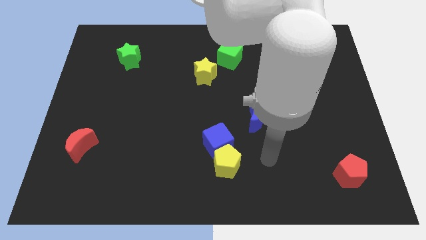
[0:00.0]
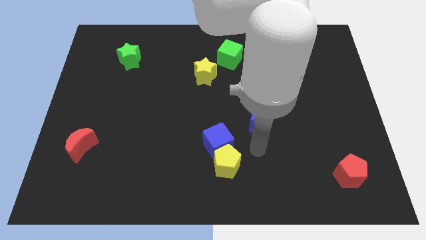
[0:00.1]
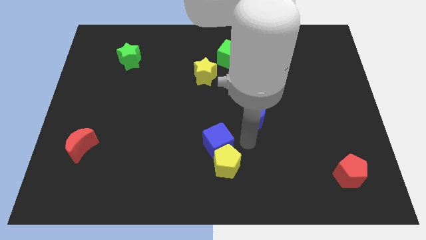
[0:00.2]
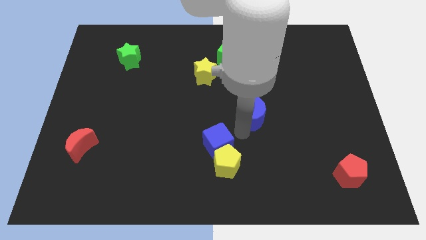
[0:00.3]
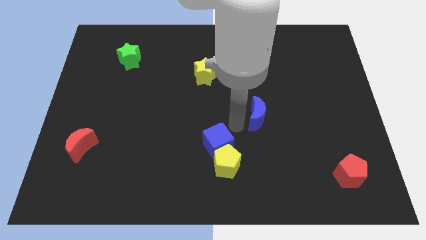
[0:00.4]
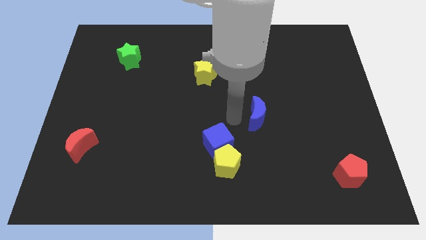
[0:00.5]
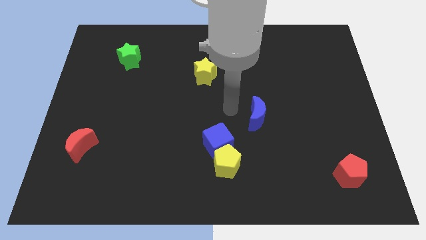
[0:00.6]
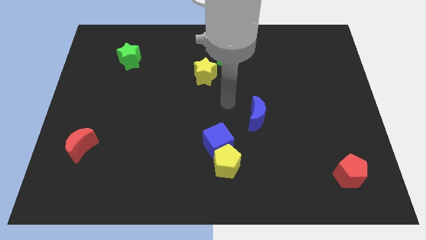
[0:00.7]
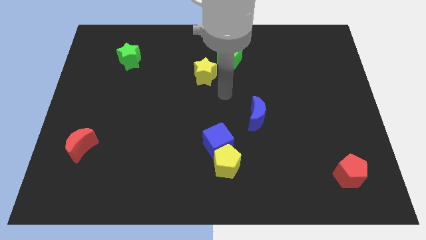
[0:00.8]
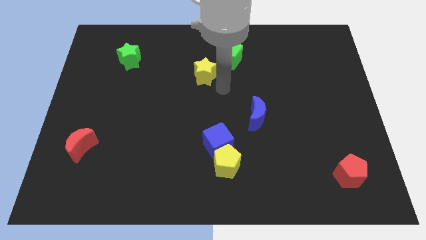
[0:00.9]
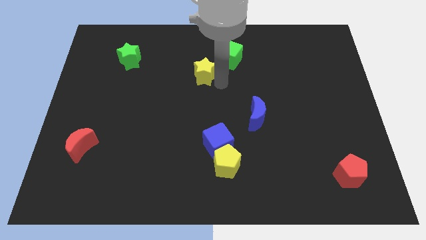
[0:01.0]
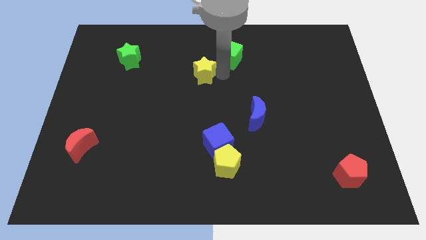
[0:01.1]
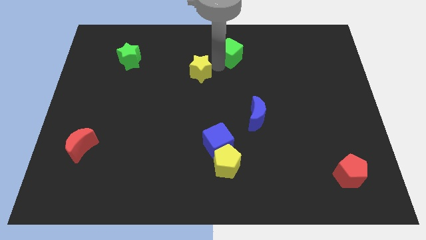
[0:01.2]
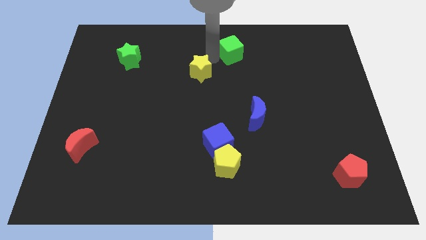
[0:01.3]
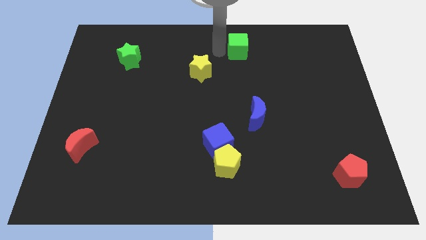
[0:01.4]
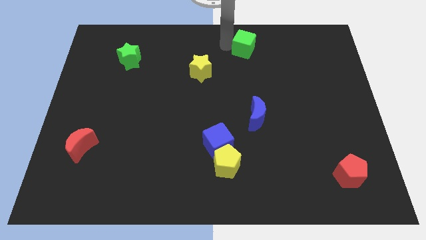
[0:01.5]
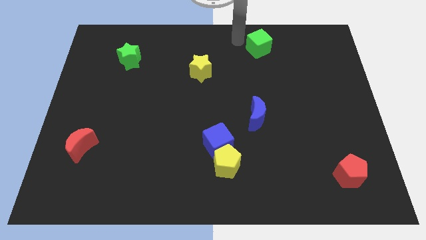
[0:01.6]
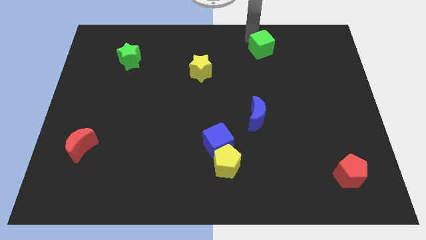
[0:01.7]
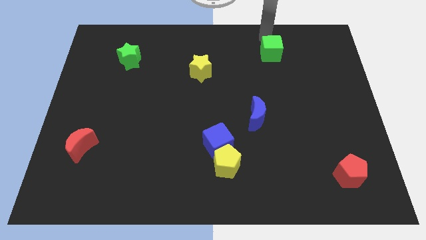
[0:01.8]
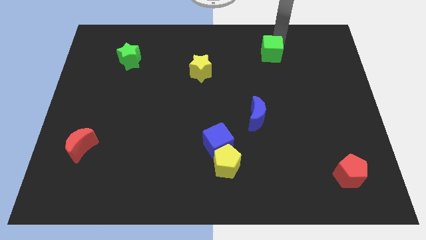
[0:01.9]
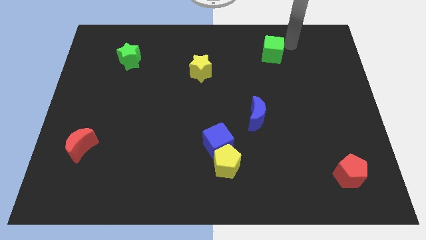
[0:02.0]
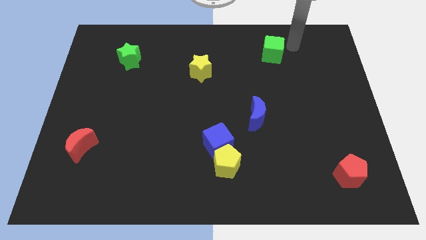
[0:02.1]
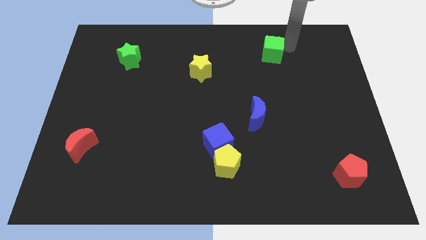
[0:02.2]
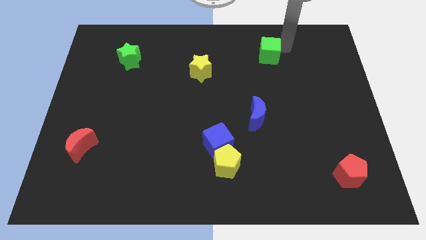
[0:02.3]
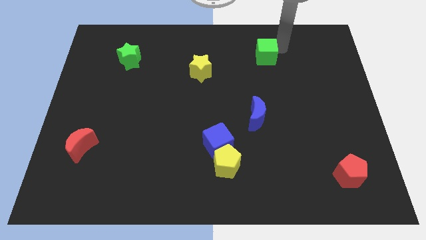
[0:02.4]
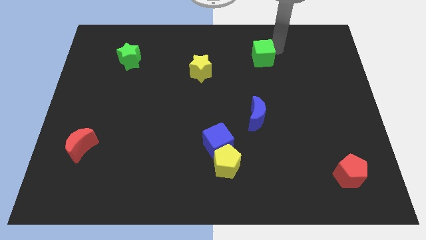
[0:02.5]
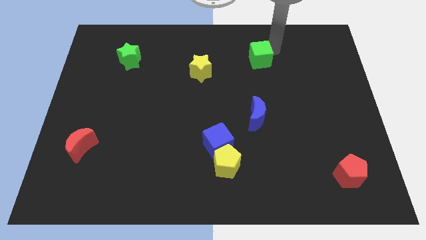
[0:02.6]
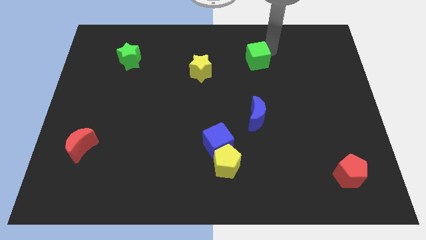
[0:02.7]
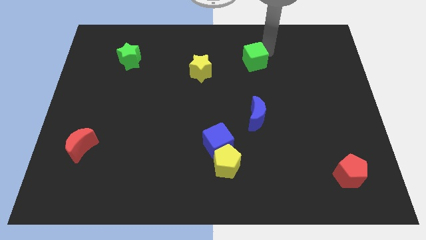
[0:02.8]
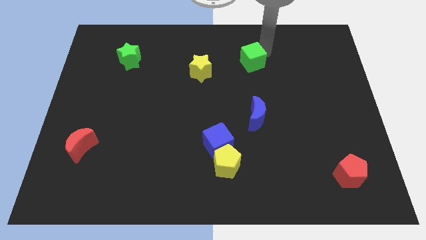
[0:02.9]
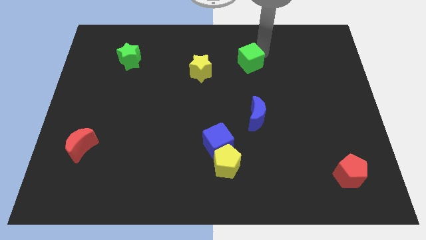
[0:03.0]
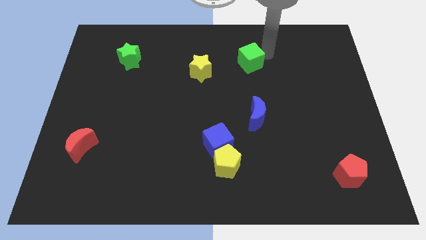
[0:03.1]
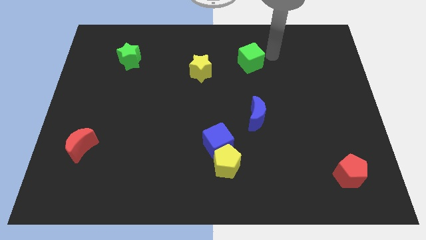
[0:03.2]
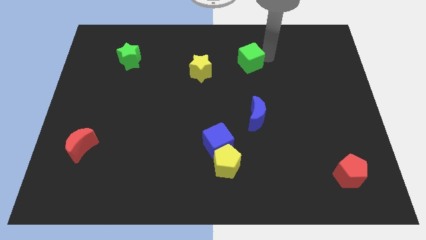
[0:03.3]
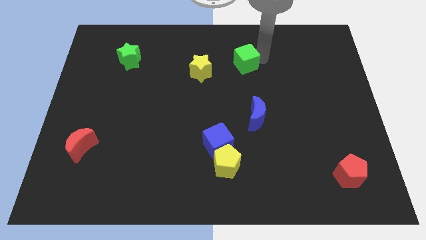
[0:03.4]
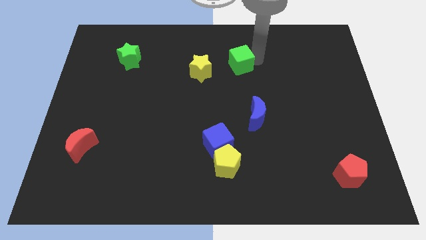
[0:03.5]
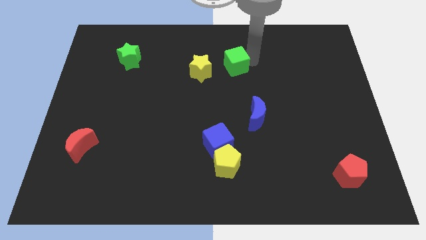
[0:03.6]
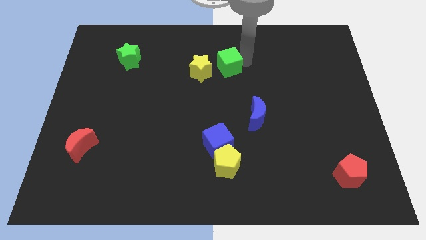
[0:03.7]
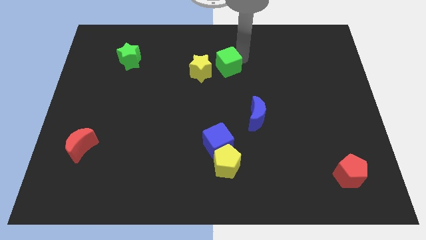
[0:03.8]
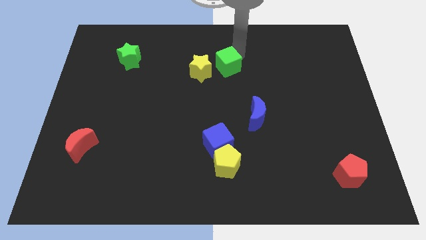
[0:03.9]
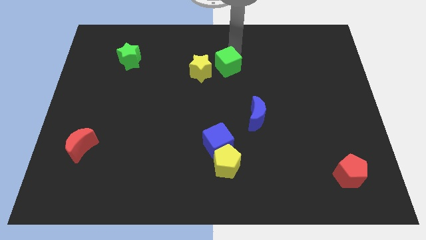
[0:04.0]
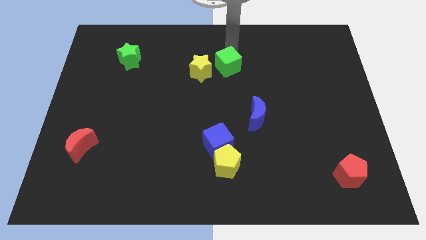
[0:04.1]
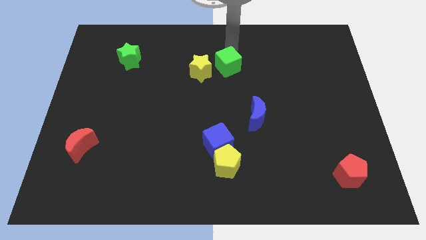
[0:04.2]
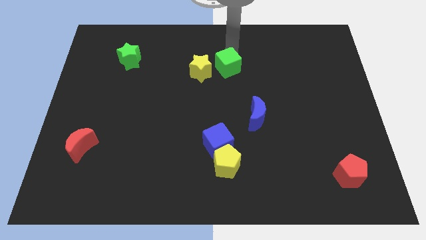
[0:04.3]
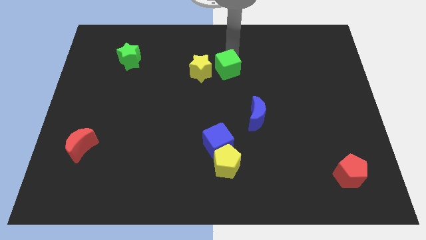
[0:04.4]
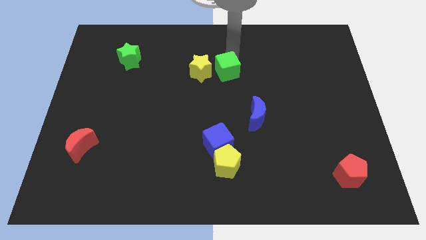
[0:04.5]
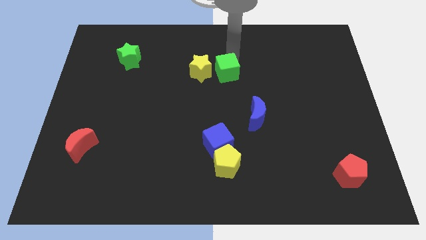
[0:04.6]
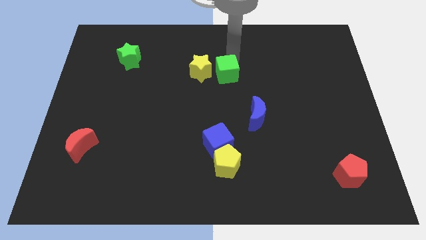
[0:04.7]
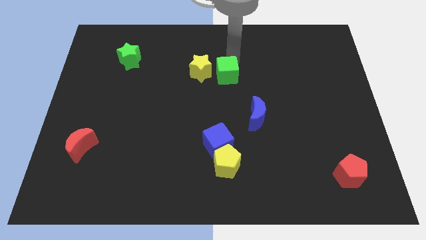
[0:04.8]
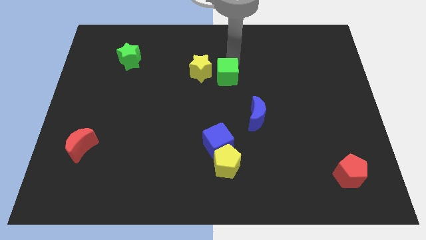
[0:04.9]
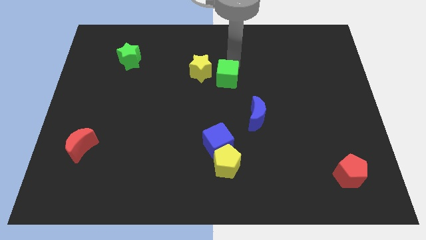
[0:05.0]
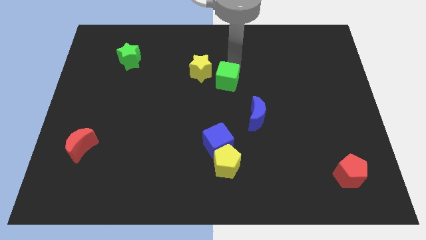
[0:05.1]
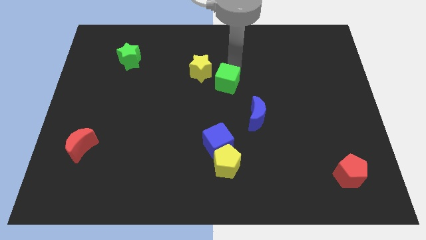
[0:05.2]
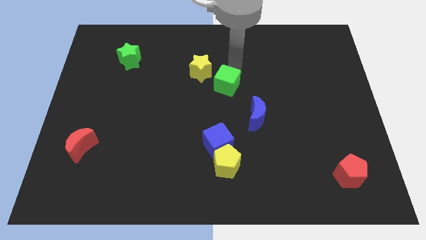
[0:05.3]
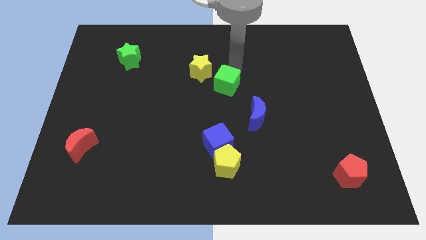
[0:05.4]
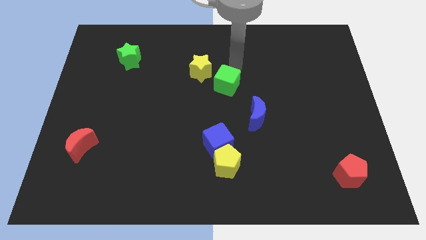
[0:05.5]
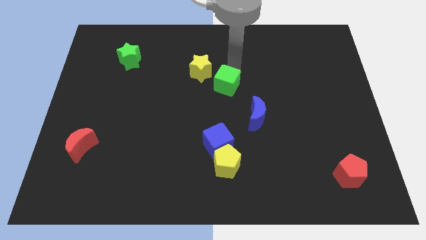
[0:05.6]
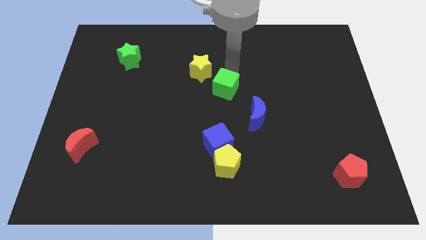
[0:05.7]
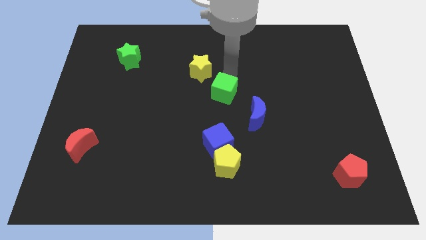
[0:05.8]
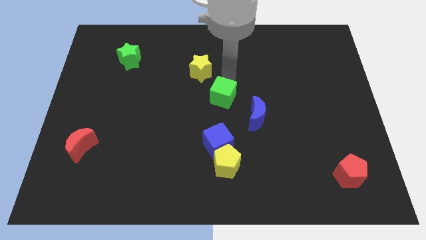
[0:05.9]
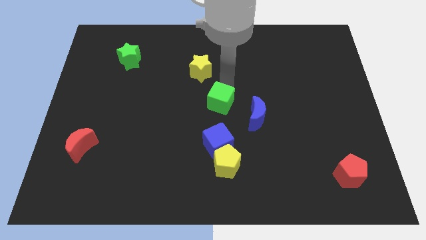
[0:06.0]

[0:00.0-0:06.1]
put the green cube to the left side of the blue moon

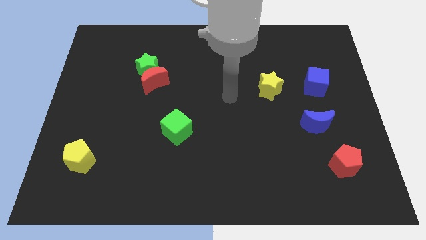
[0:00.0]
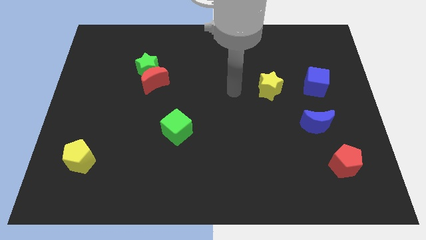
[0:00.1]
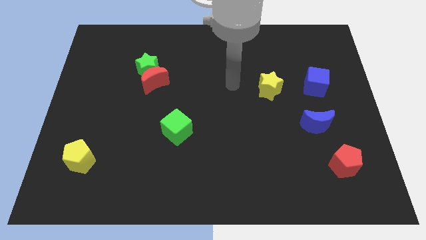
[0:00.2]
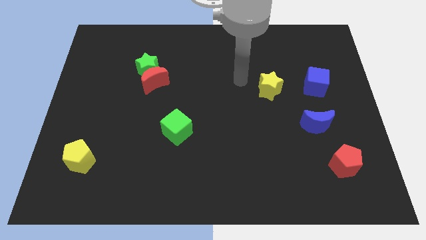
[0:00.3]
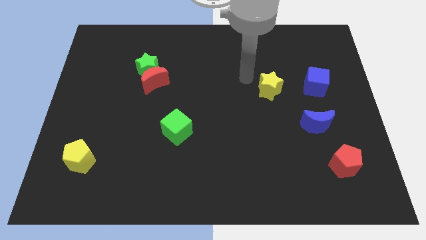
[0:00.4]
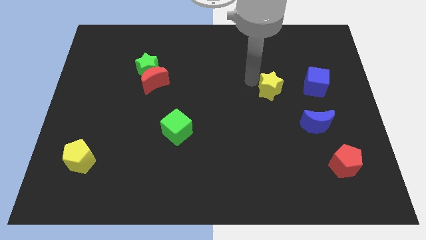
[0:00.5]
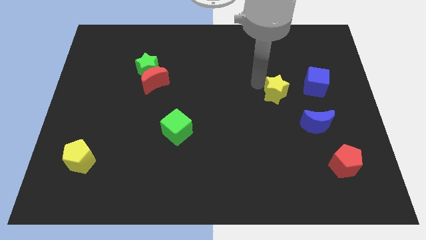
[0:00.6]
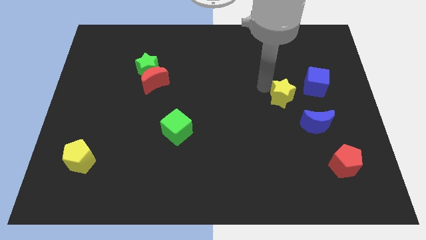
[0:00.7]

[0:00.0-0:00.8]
slide the yellow star to the bottom left of the blue cube
